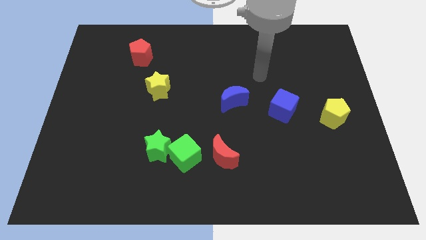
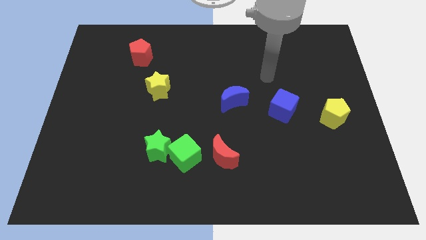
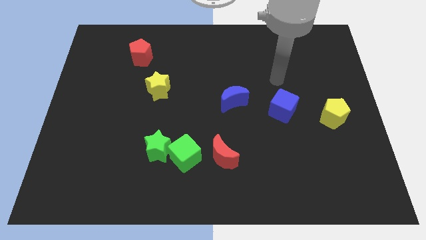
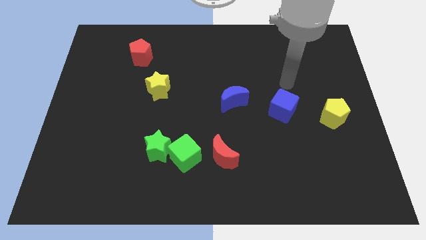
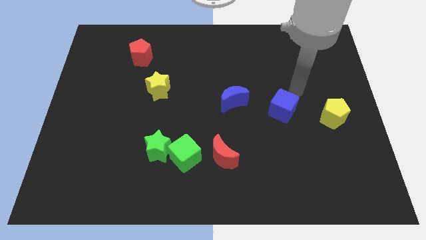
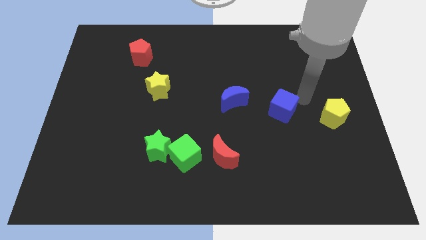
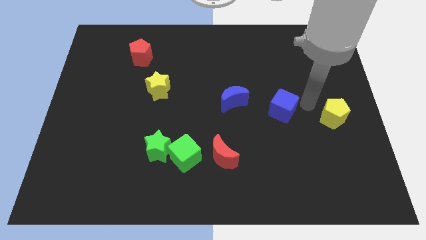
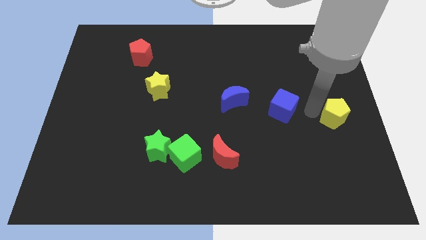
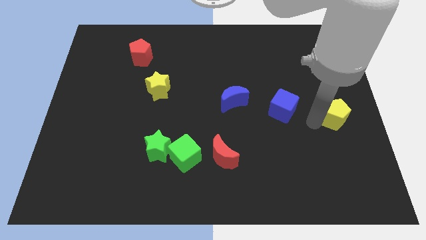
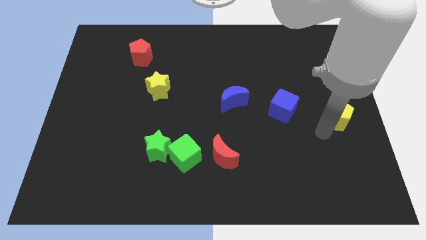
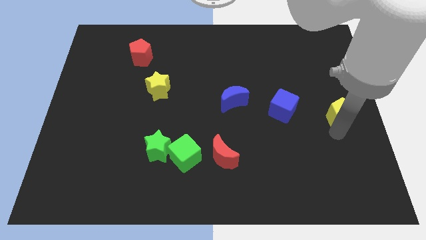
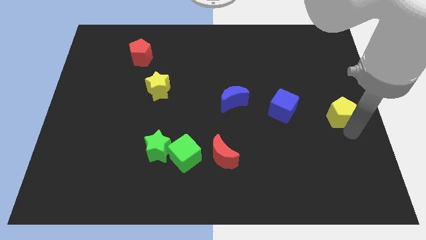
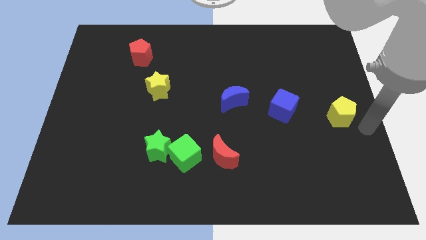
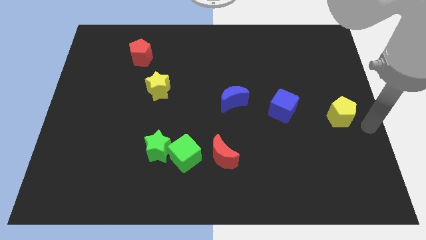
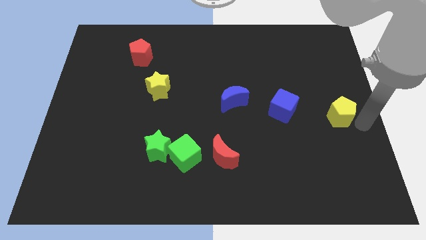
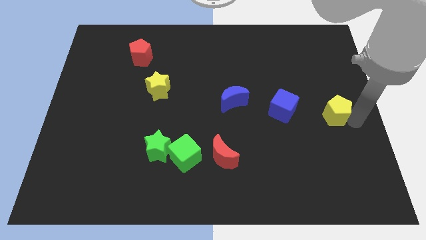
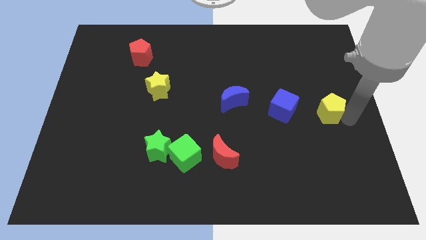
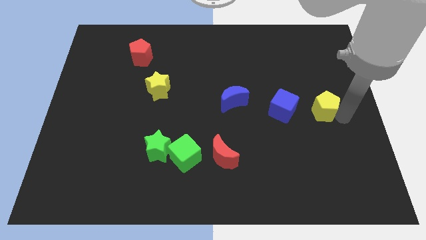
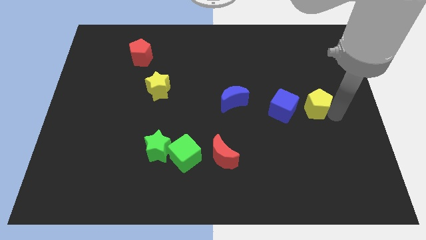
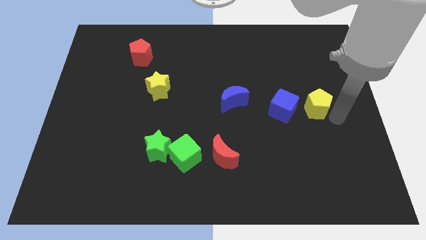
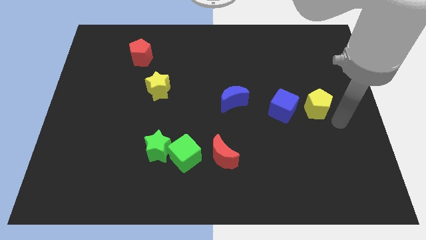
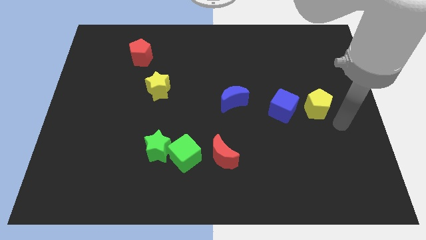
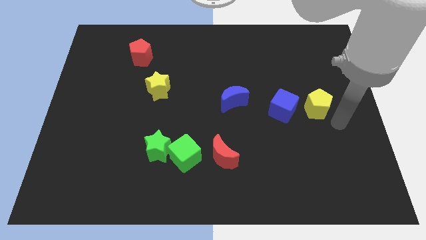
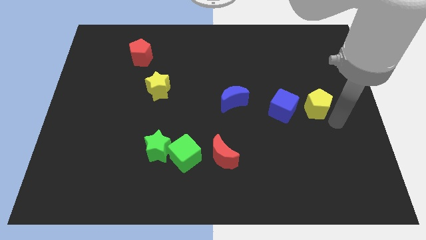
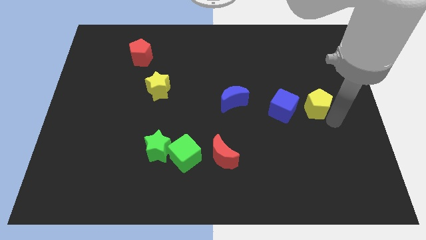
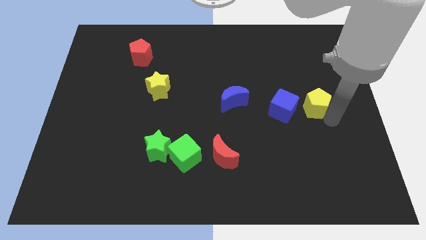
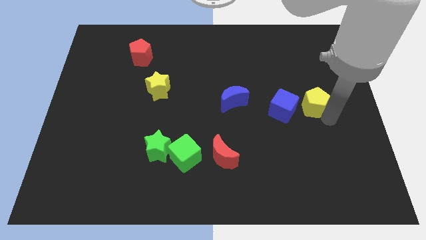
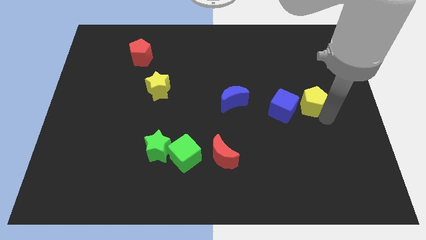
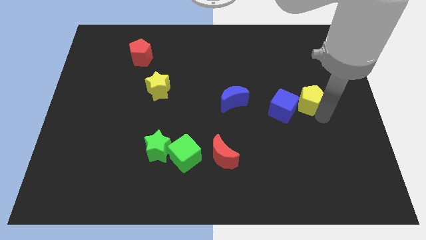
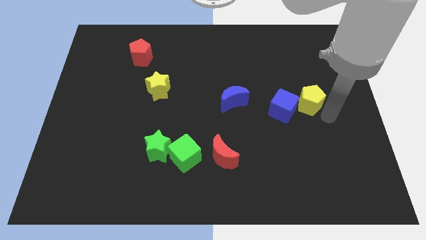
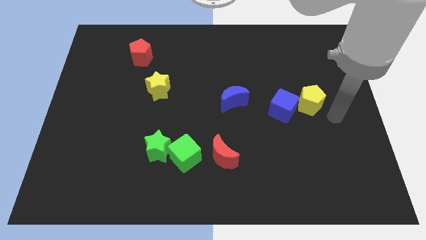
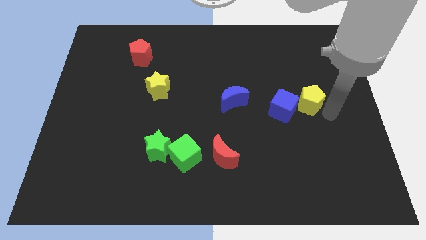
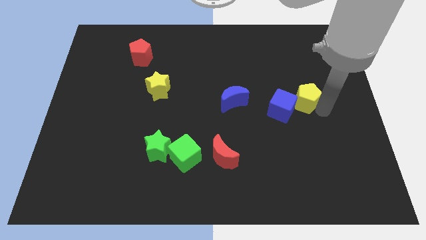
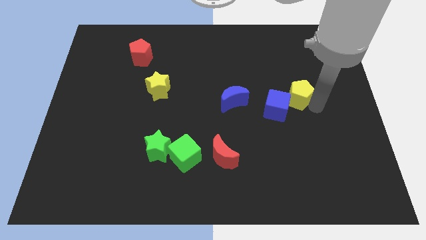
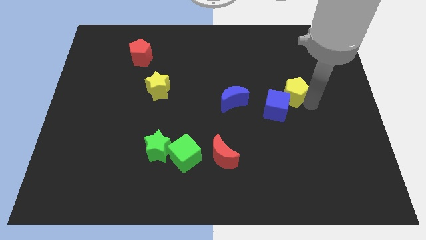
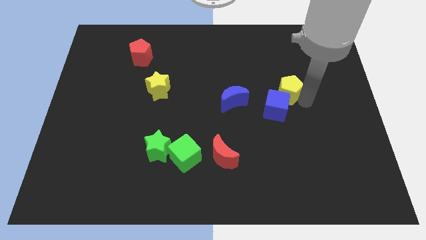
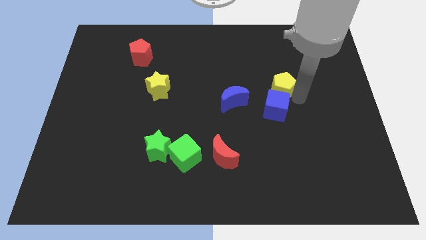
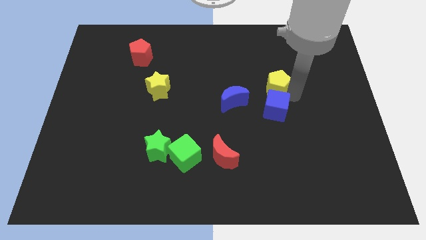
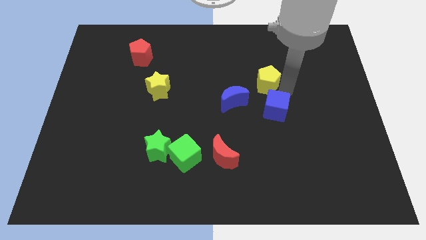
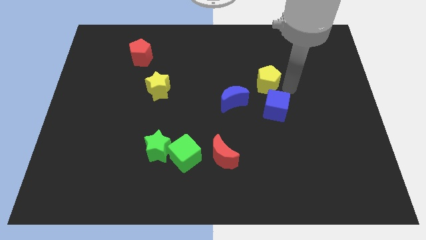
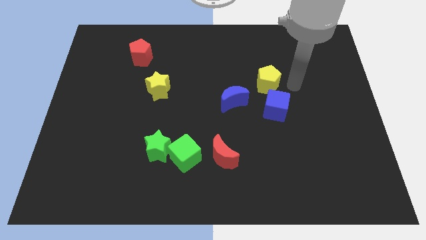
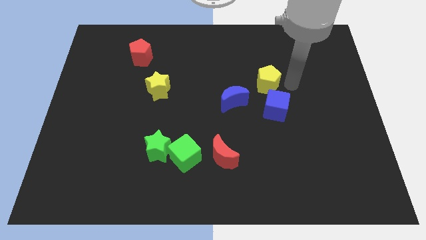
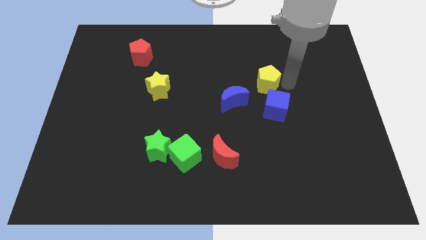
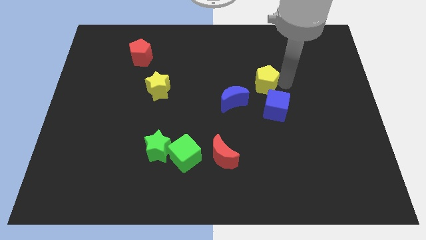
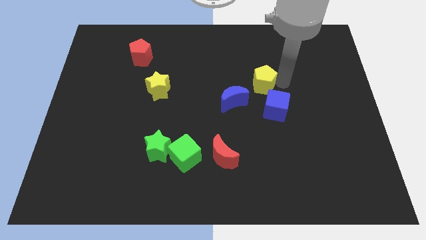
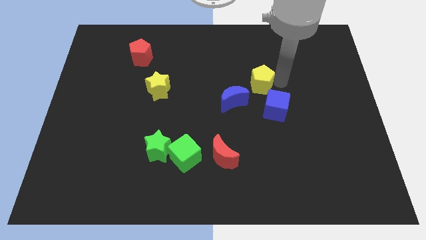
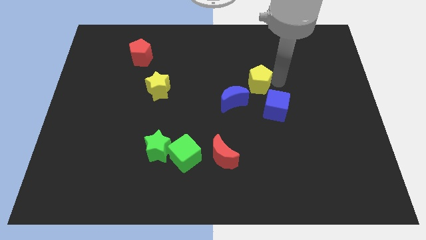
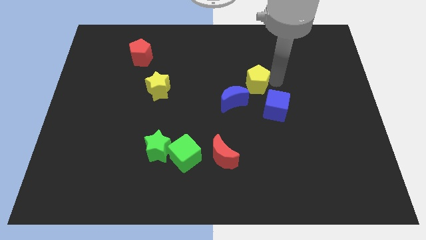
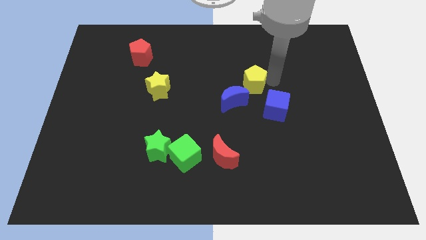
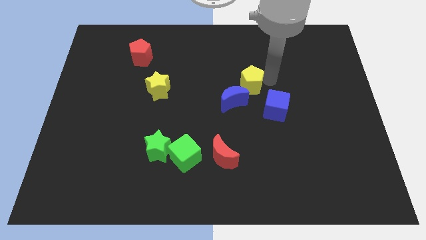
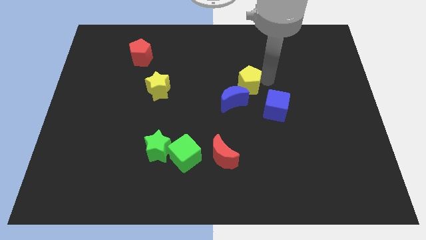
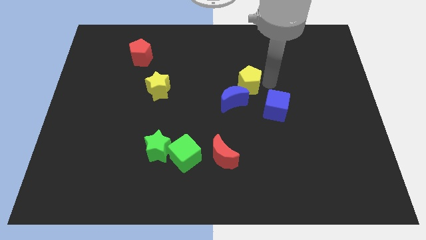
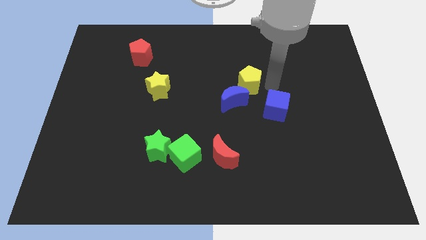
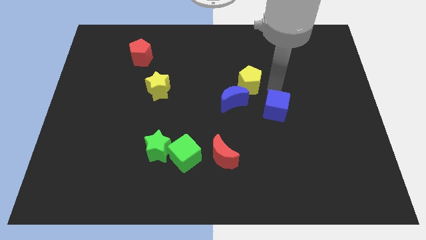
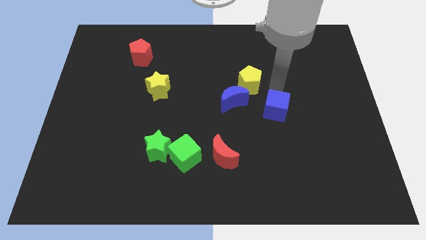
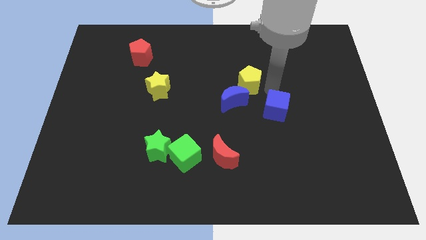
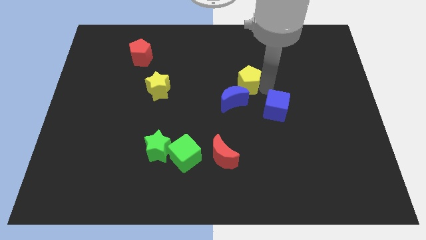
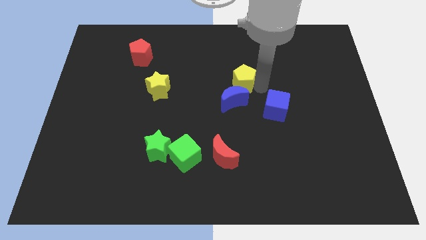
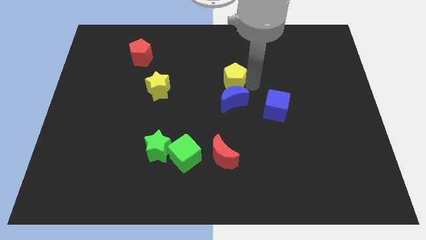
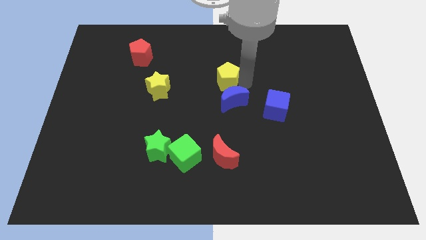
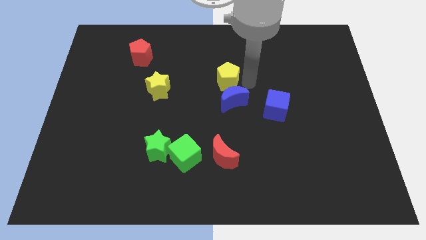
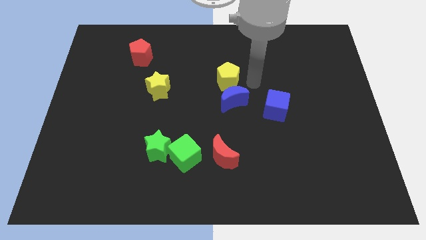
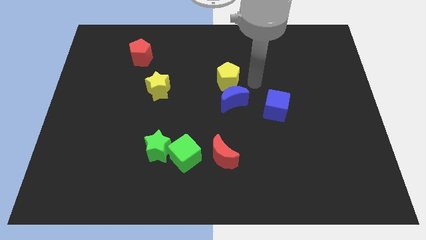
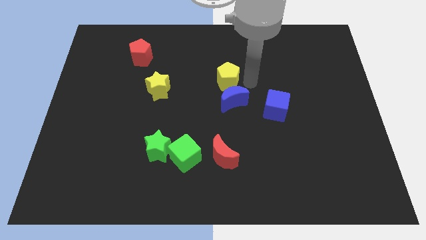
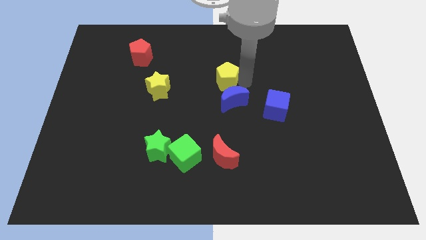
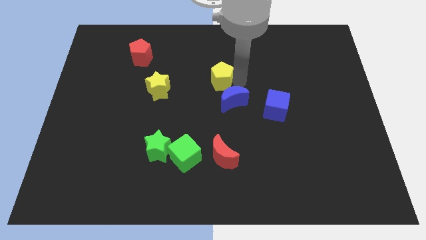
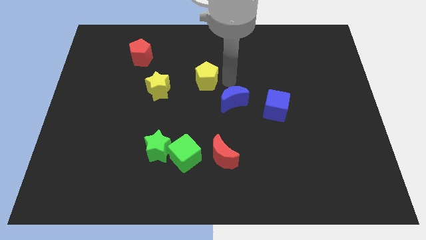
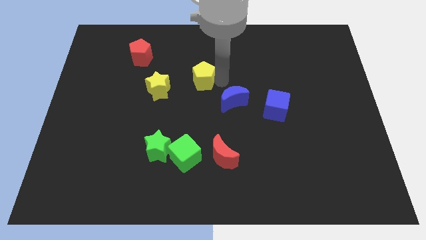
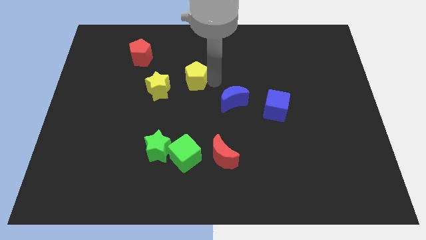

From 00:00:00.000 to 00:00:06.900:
move the yellow pentagon diagonally up and to the right of the yellow star

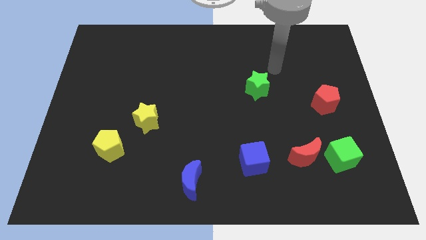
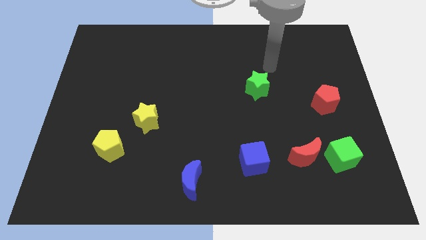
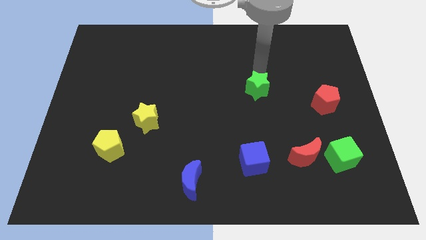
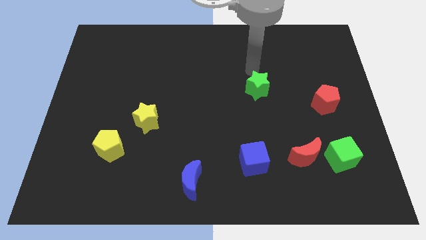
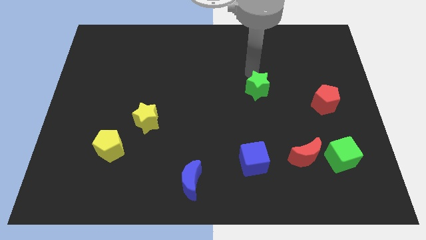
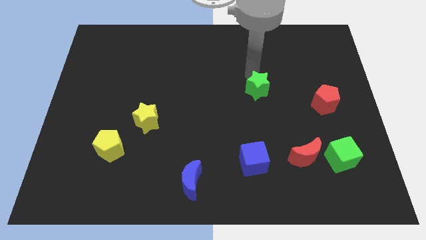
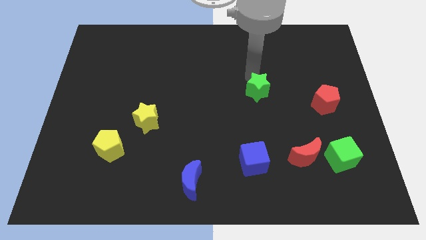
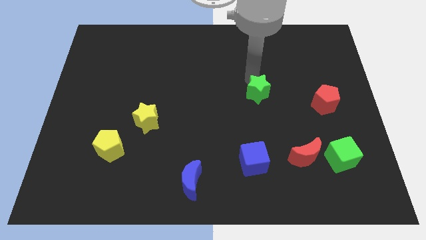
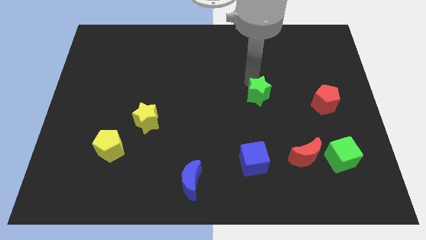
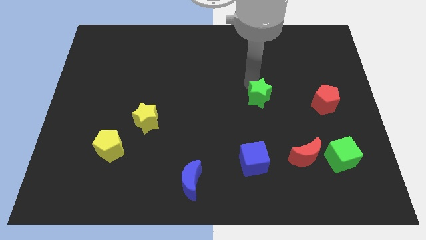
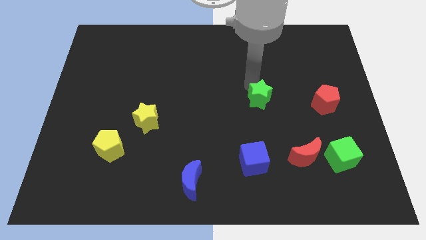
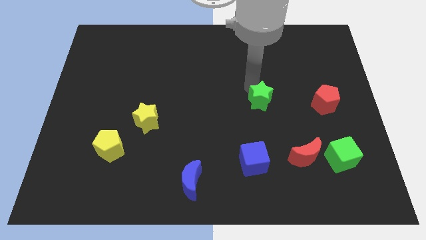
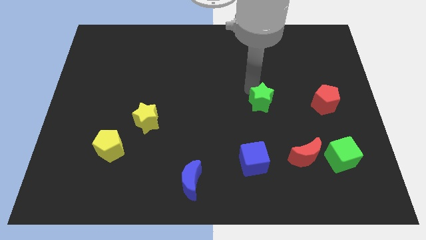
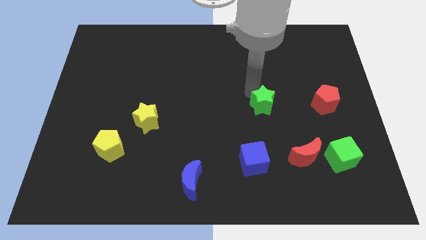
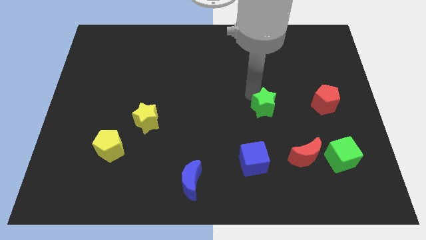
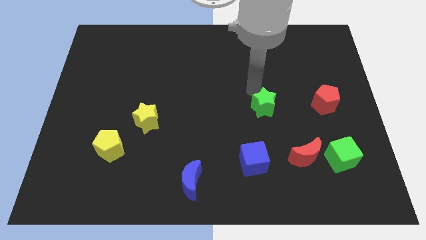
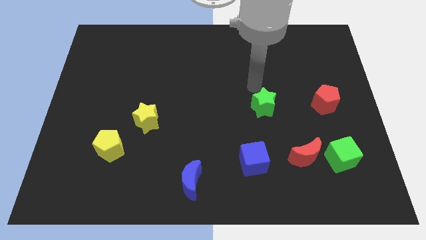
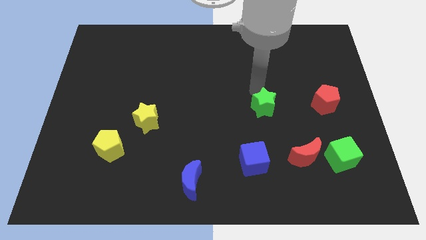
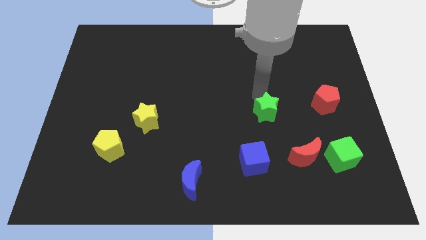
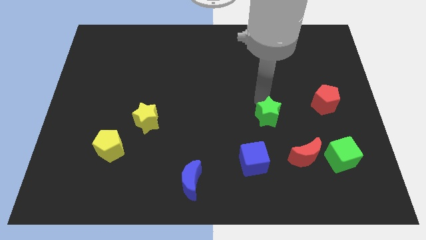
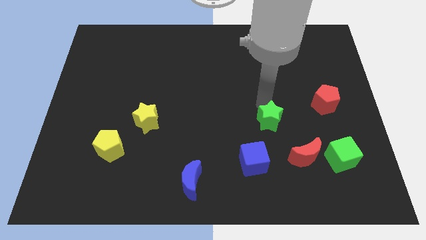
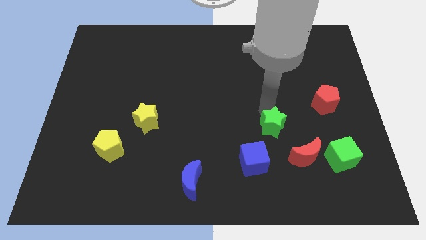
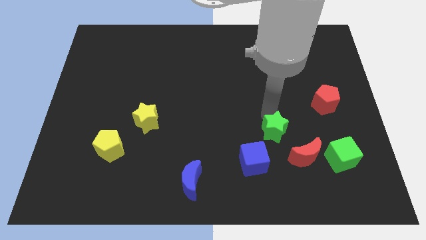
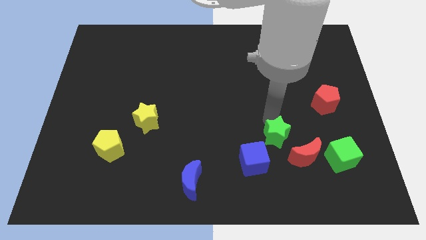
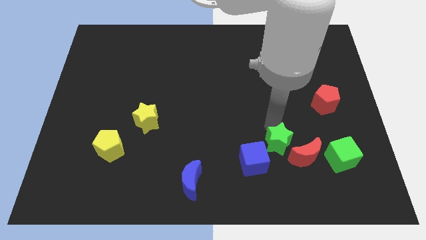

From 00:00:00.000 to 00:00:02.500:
put the green star just left of the green cube
